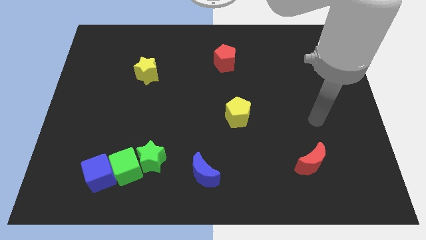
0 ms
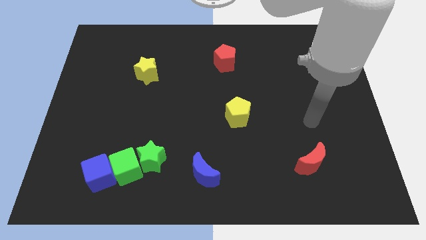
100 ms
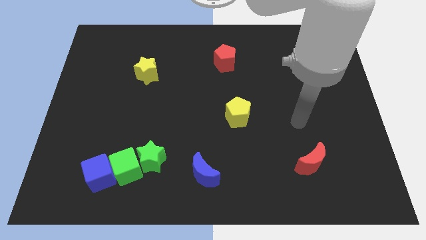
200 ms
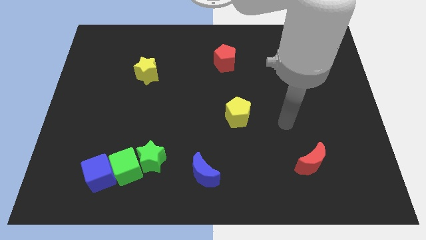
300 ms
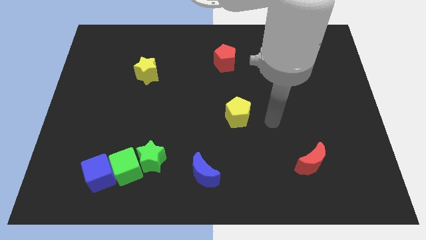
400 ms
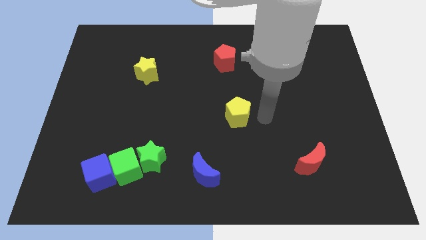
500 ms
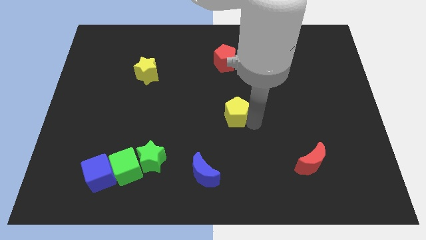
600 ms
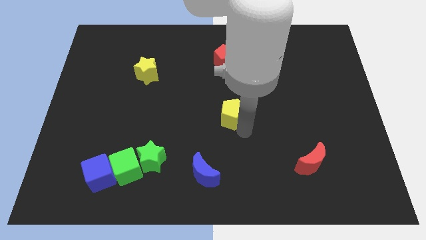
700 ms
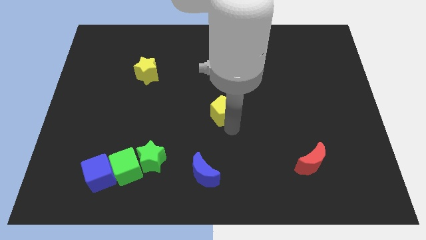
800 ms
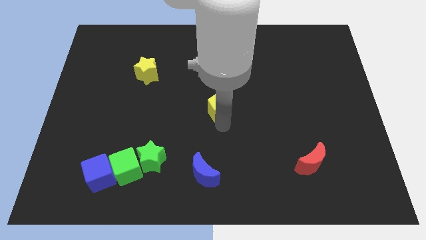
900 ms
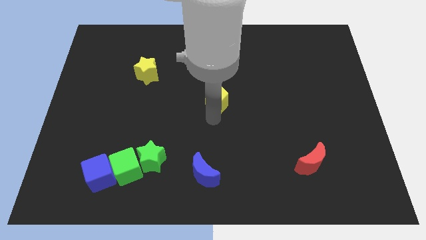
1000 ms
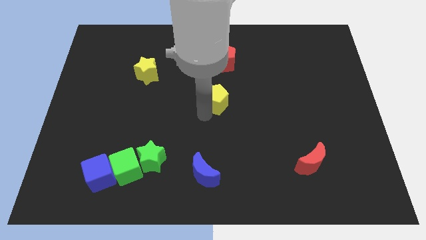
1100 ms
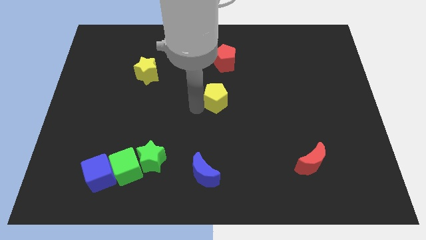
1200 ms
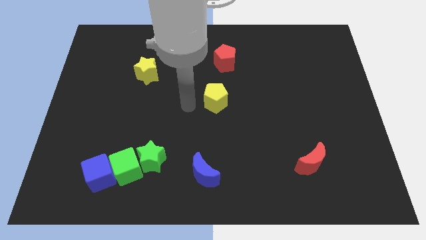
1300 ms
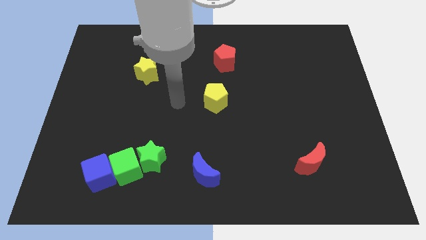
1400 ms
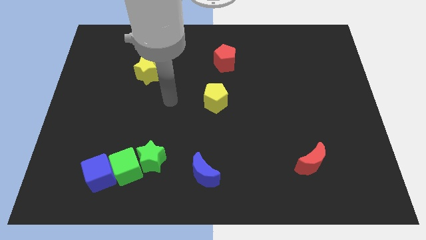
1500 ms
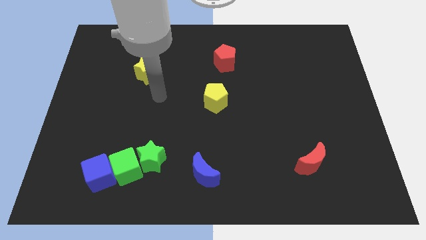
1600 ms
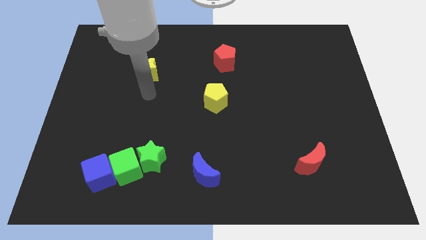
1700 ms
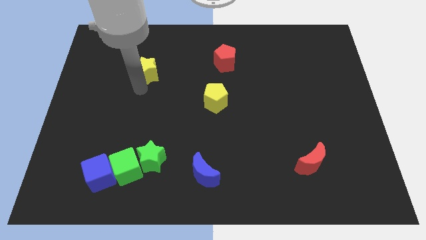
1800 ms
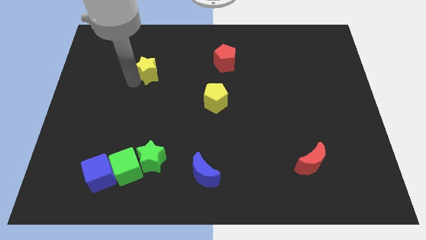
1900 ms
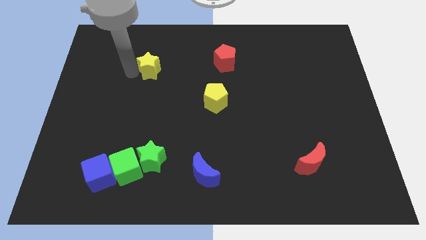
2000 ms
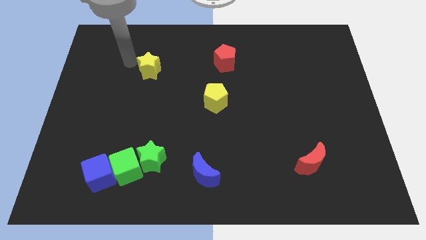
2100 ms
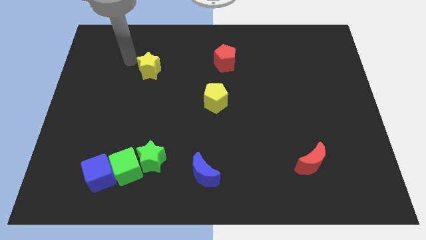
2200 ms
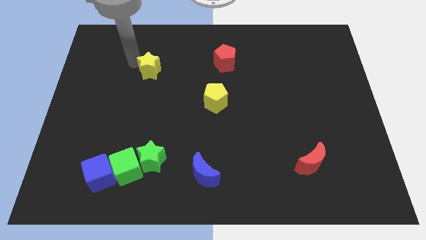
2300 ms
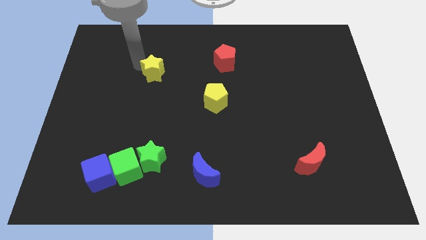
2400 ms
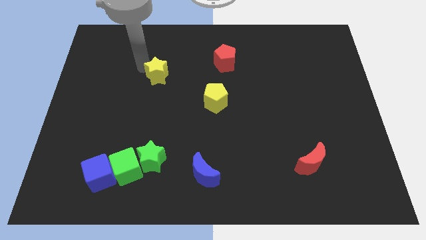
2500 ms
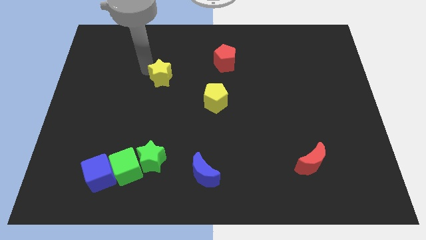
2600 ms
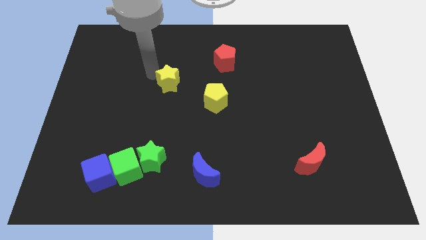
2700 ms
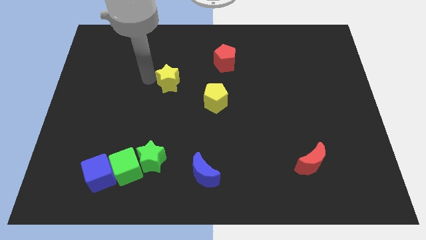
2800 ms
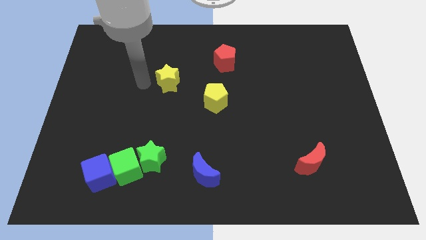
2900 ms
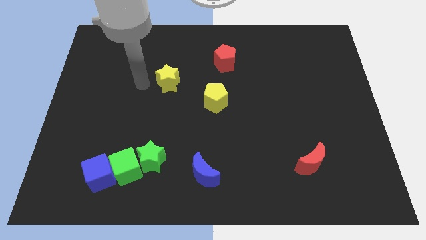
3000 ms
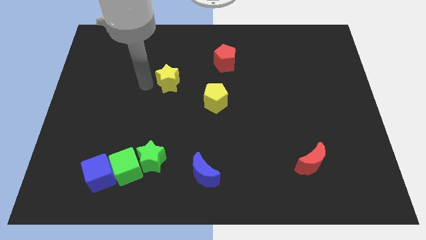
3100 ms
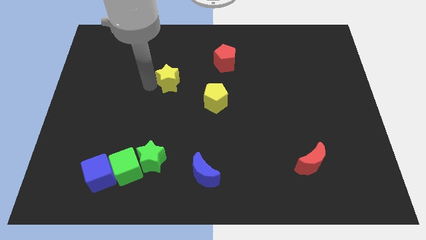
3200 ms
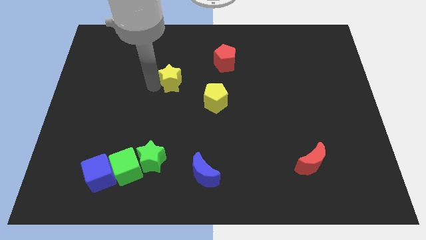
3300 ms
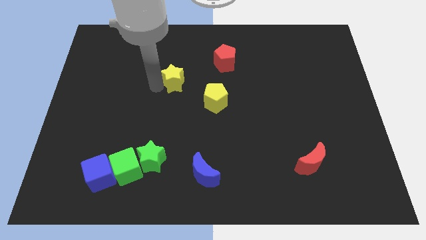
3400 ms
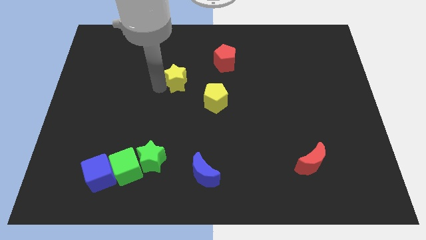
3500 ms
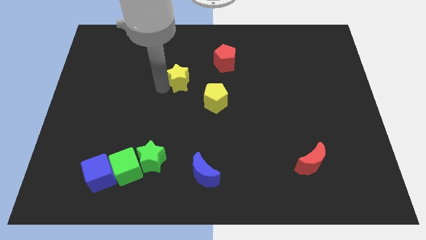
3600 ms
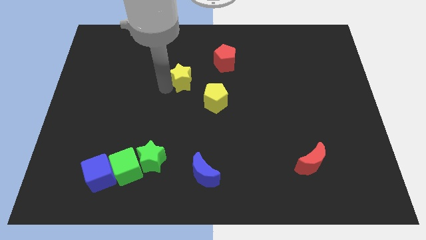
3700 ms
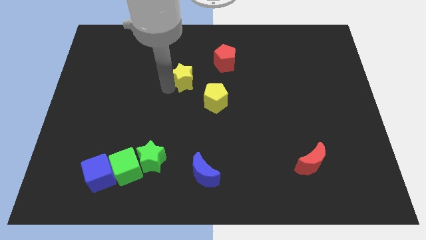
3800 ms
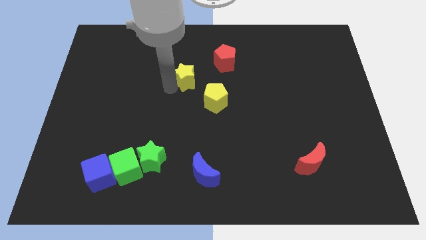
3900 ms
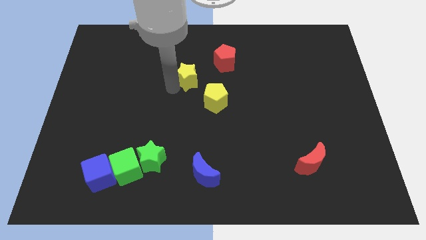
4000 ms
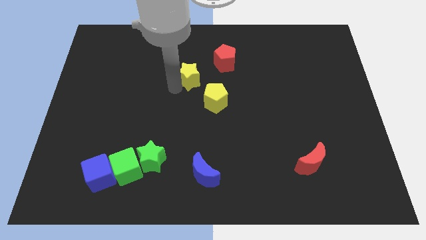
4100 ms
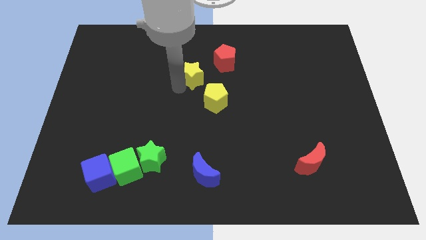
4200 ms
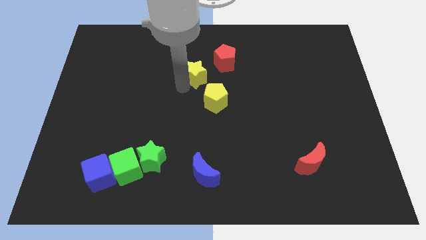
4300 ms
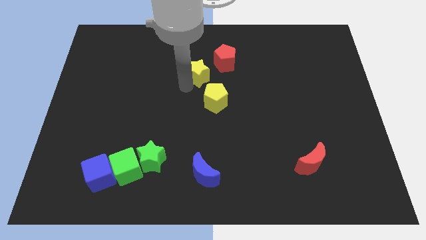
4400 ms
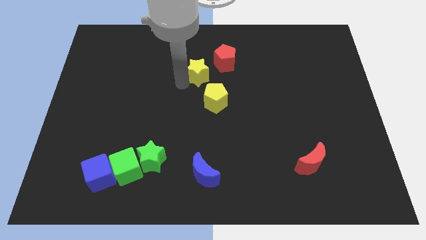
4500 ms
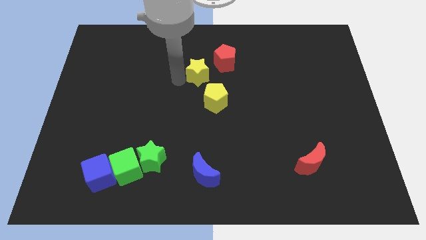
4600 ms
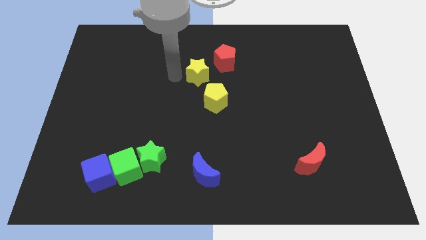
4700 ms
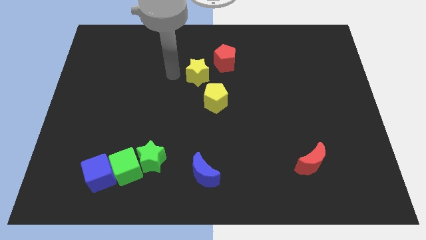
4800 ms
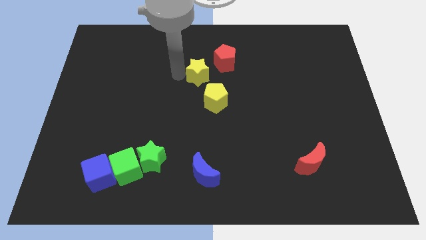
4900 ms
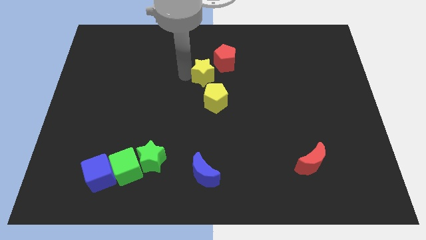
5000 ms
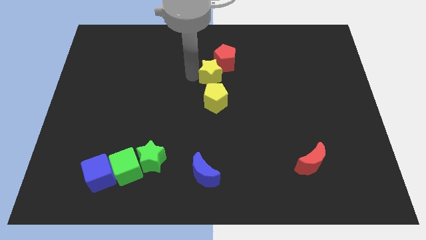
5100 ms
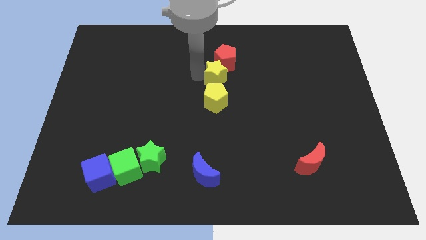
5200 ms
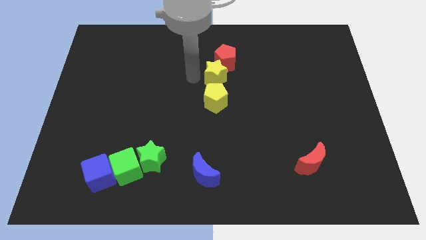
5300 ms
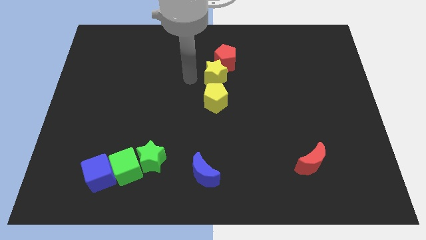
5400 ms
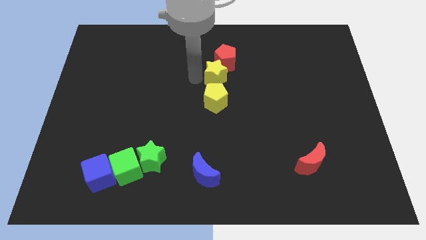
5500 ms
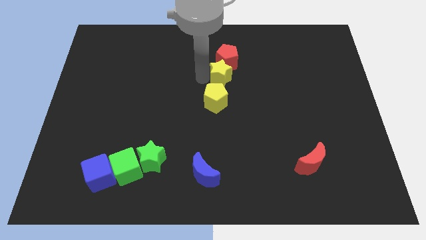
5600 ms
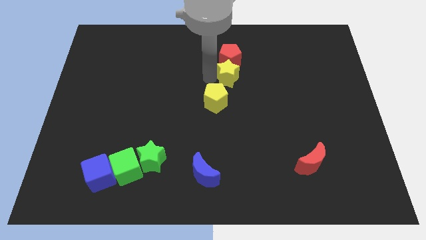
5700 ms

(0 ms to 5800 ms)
push the yellow star right

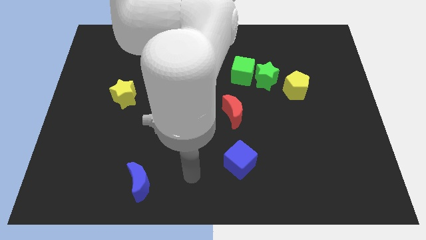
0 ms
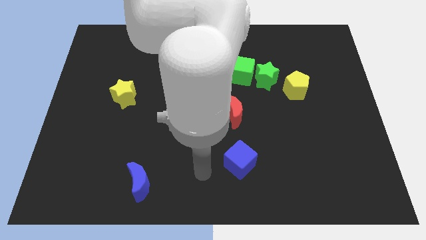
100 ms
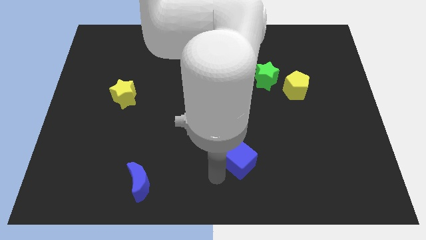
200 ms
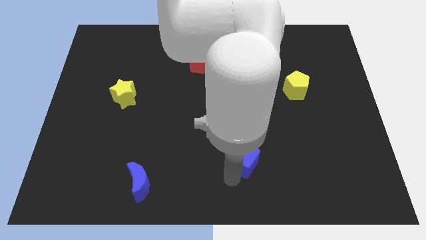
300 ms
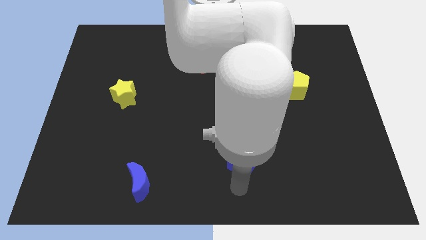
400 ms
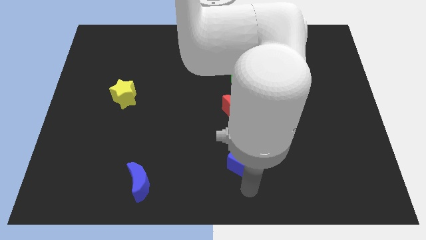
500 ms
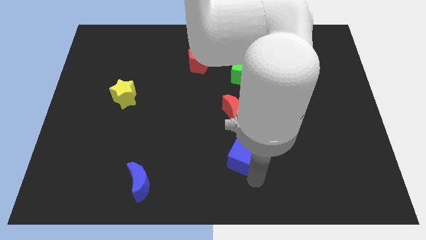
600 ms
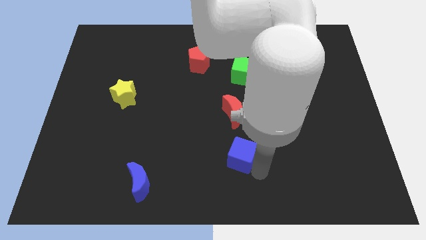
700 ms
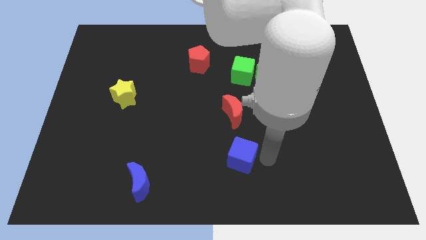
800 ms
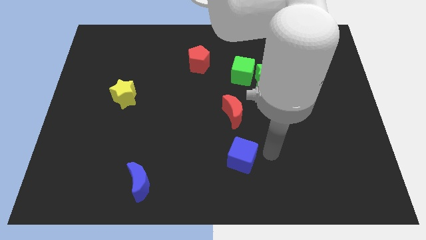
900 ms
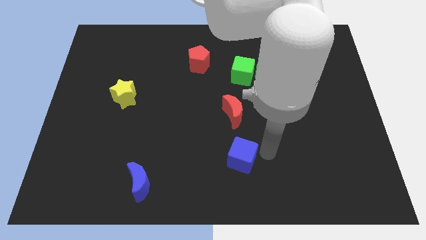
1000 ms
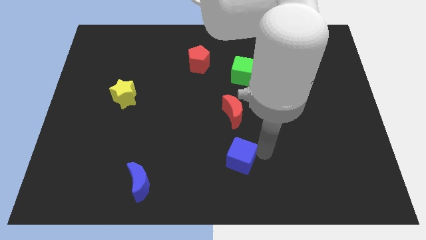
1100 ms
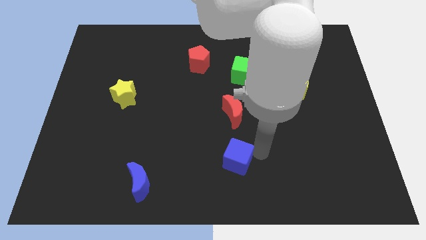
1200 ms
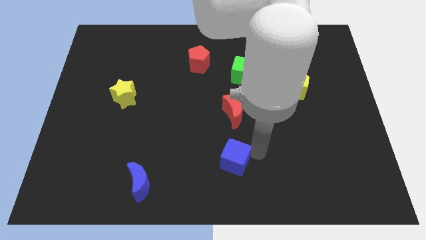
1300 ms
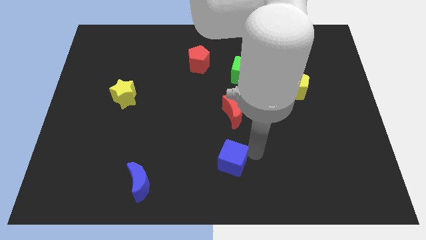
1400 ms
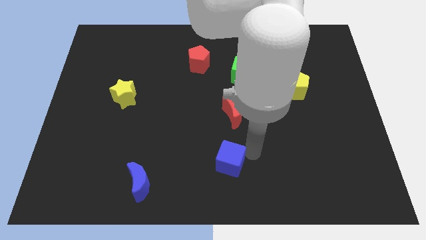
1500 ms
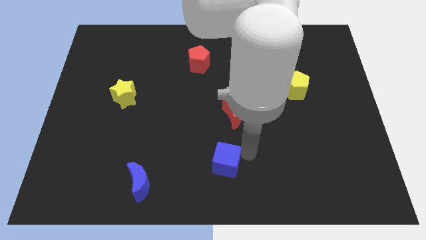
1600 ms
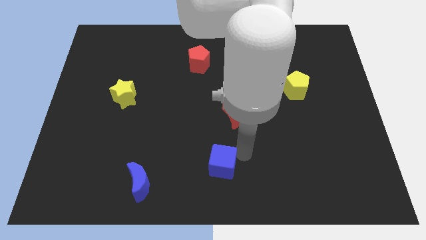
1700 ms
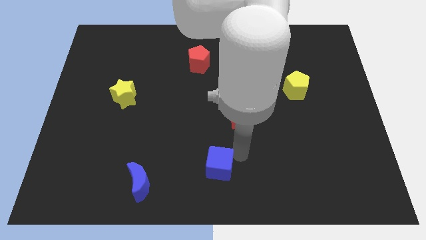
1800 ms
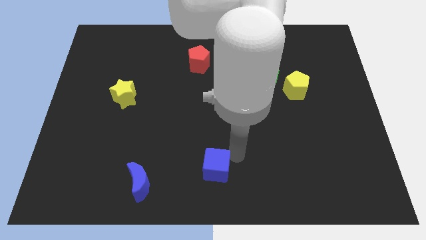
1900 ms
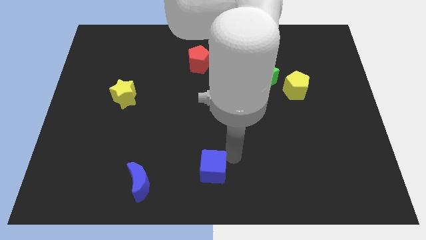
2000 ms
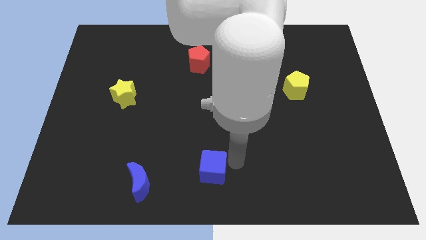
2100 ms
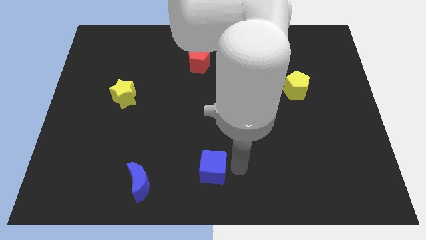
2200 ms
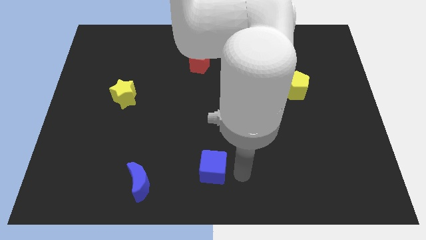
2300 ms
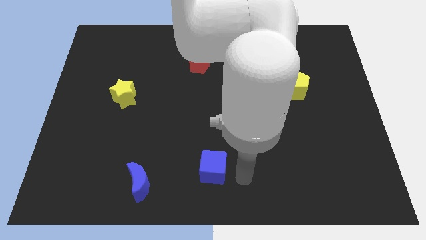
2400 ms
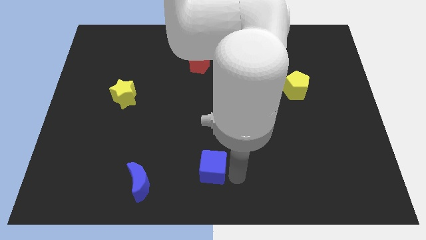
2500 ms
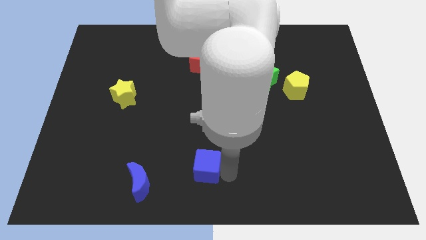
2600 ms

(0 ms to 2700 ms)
move the blue cube to the left somewhat
